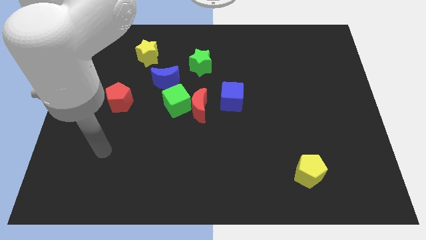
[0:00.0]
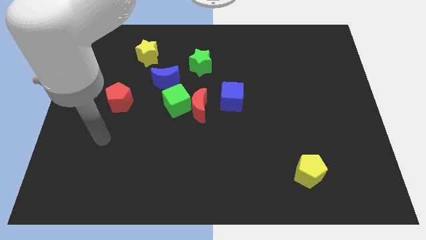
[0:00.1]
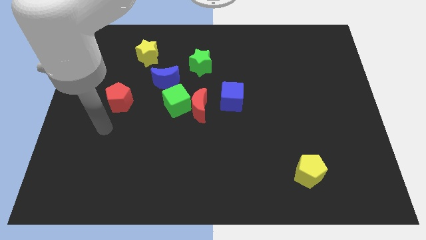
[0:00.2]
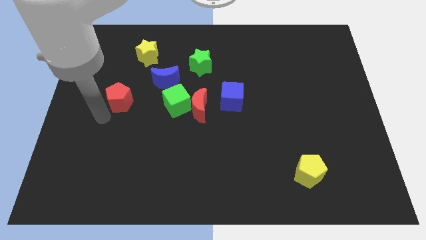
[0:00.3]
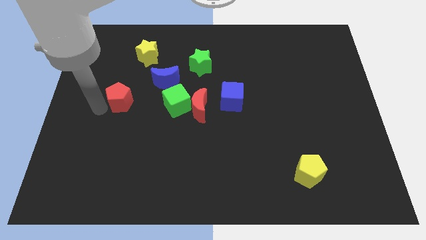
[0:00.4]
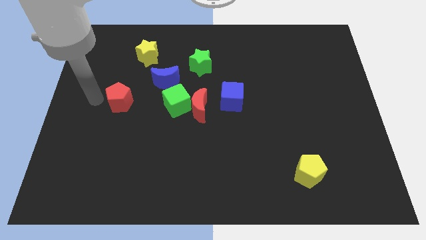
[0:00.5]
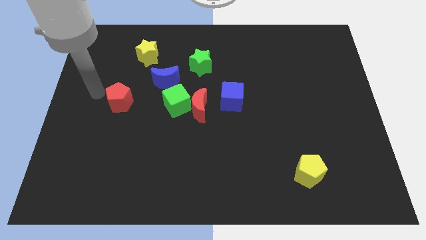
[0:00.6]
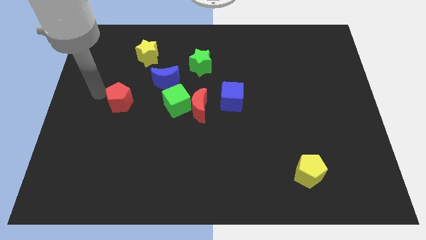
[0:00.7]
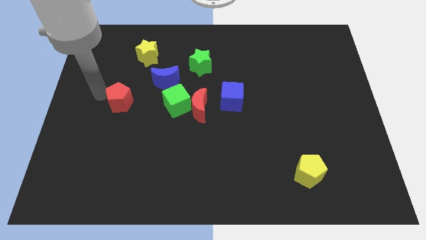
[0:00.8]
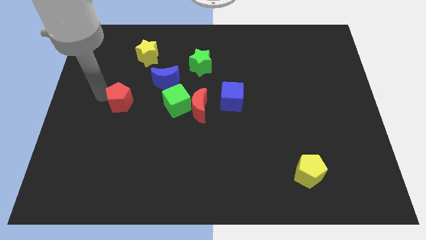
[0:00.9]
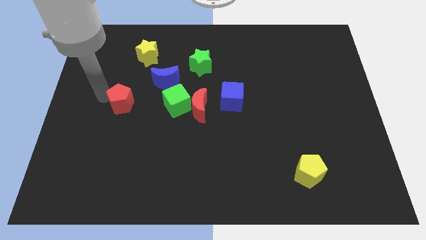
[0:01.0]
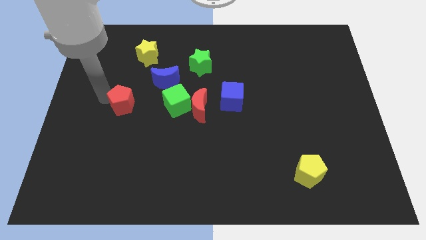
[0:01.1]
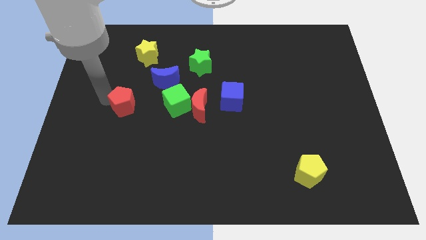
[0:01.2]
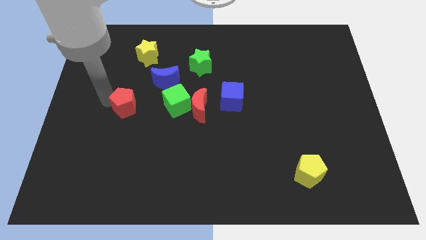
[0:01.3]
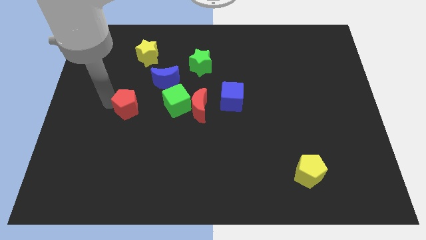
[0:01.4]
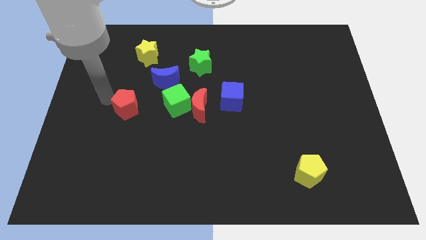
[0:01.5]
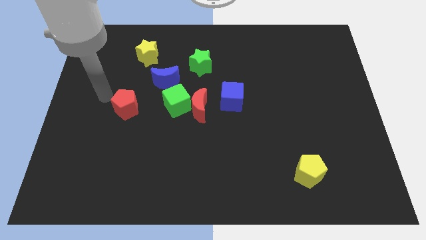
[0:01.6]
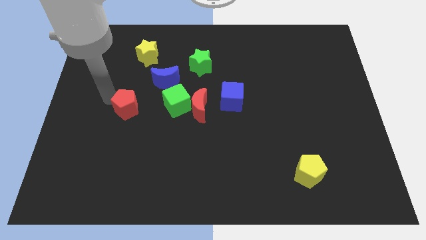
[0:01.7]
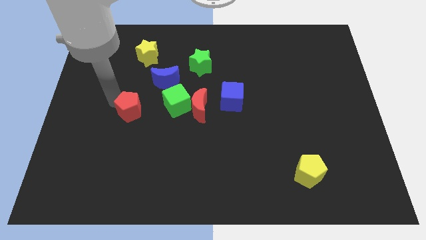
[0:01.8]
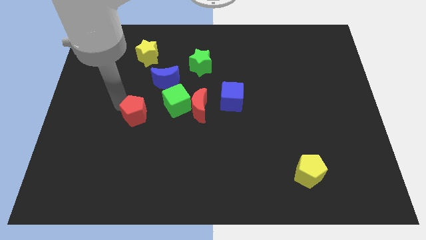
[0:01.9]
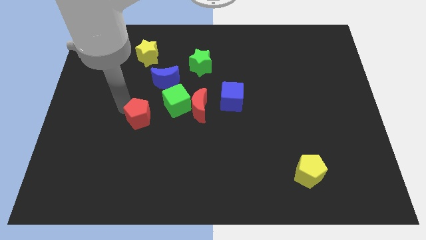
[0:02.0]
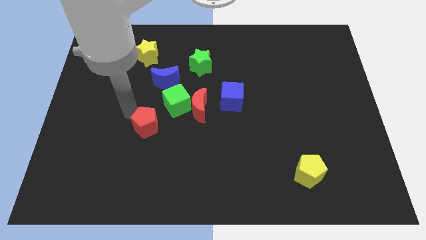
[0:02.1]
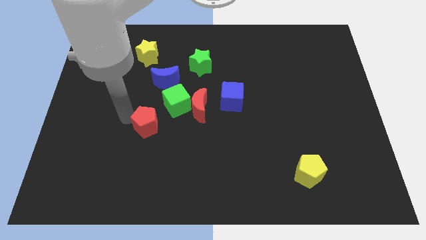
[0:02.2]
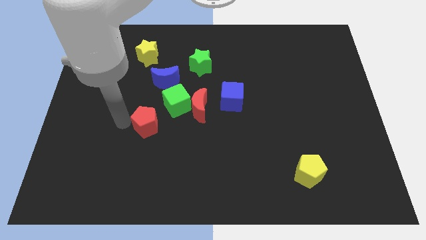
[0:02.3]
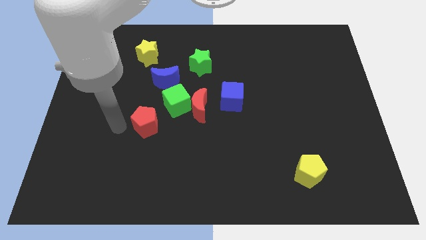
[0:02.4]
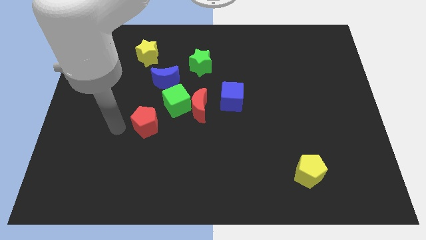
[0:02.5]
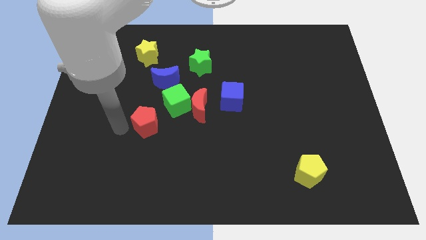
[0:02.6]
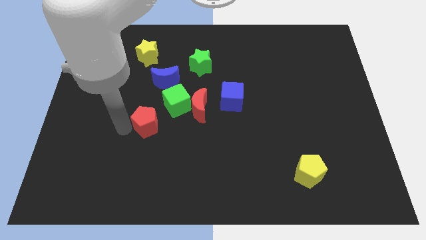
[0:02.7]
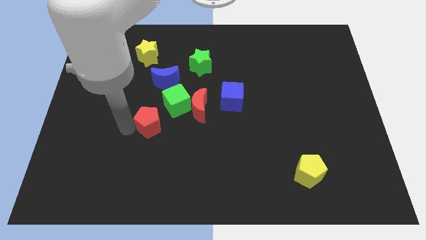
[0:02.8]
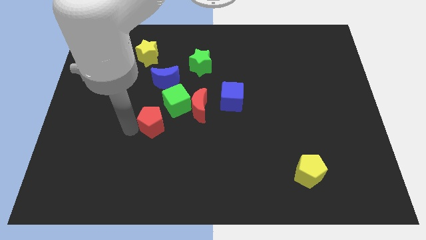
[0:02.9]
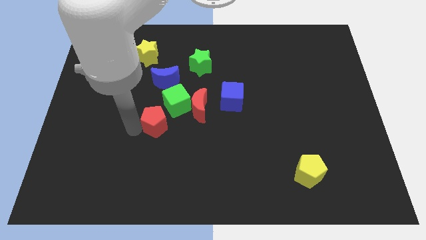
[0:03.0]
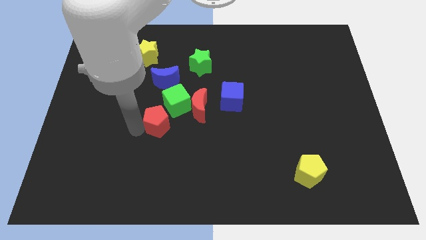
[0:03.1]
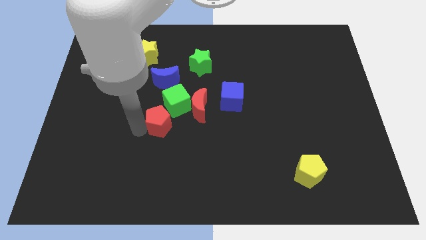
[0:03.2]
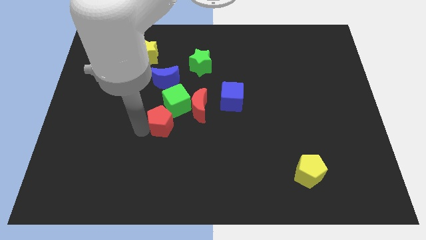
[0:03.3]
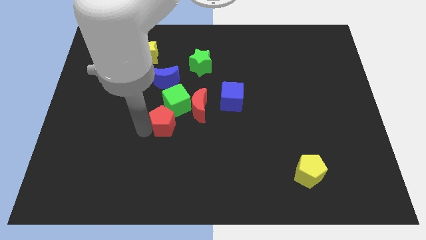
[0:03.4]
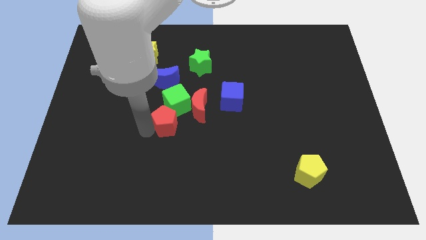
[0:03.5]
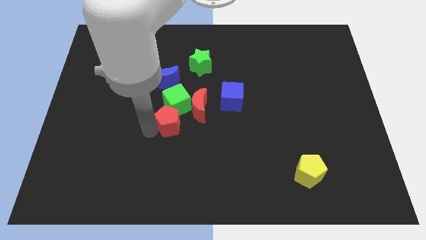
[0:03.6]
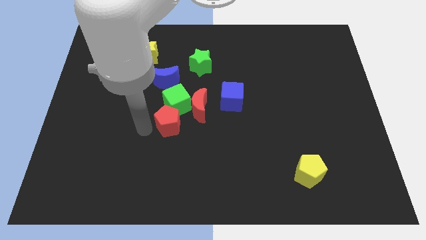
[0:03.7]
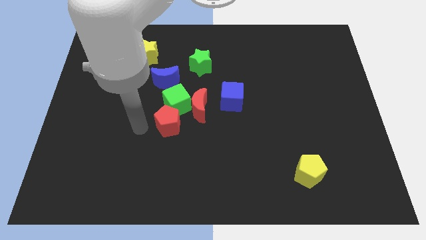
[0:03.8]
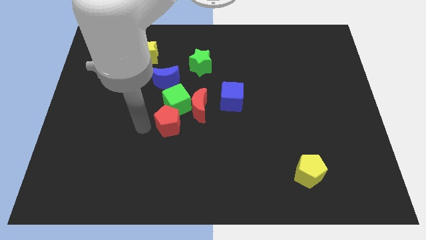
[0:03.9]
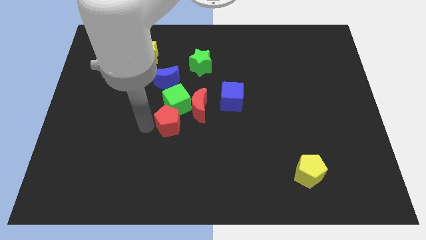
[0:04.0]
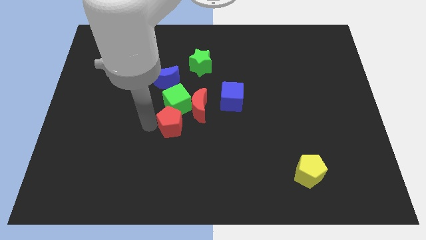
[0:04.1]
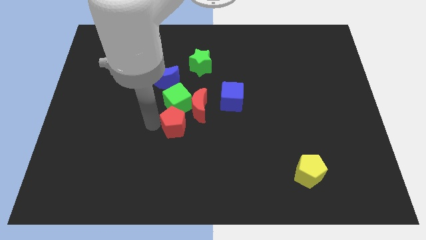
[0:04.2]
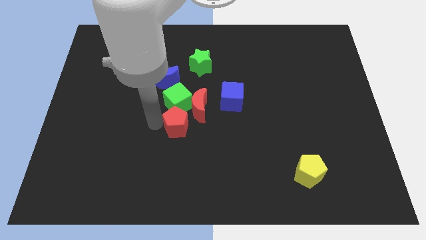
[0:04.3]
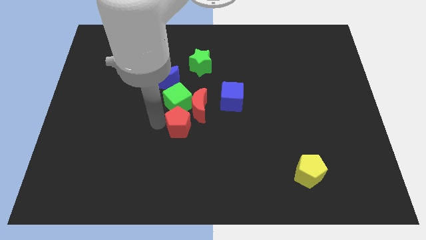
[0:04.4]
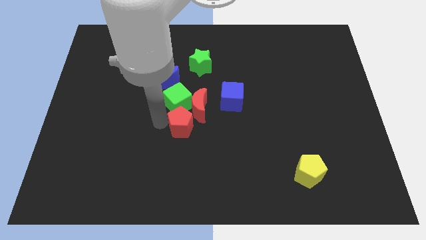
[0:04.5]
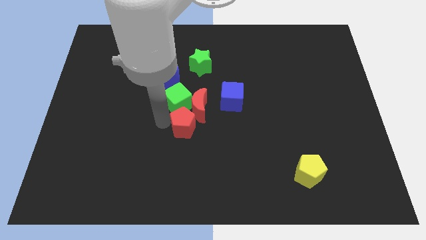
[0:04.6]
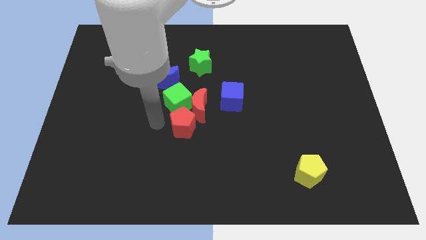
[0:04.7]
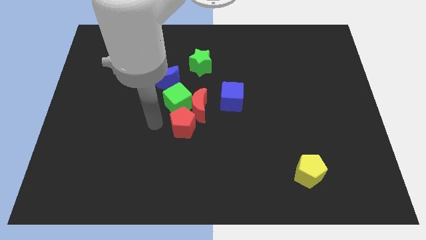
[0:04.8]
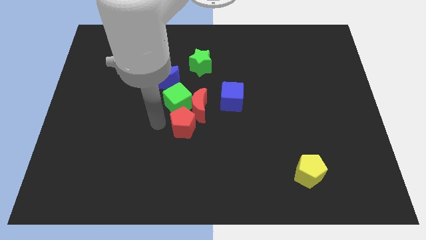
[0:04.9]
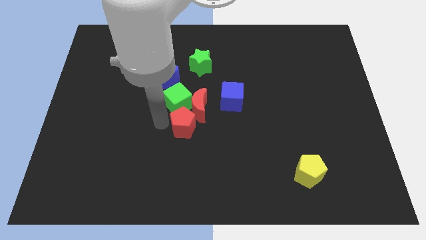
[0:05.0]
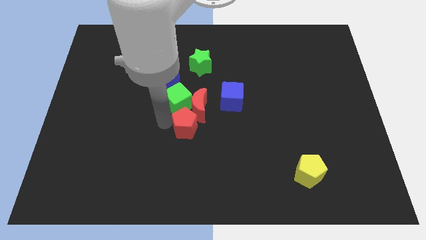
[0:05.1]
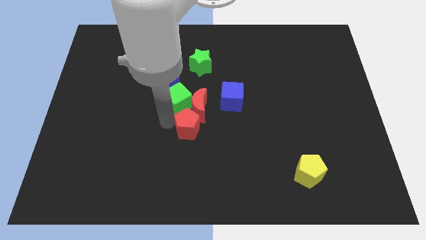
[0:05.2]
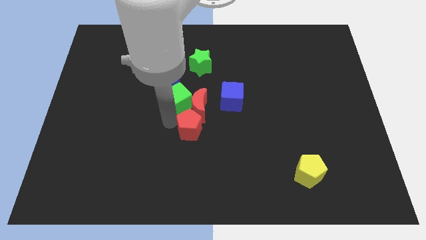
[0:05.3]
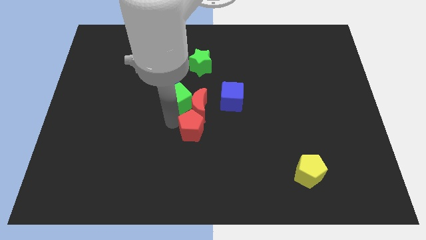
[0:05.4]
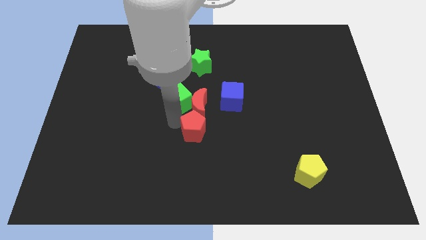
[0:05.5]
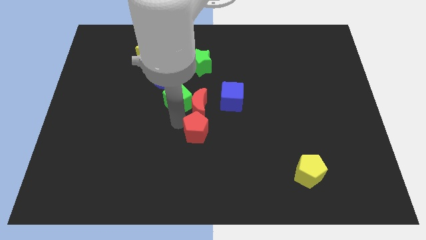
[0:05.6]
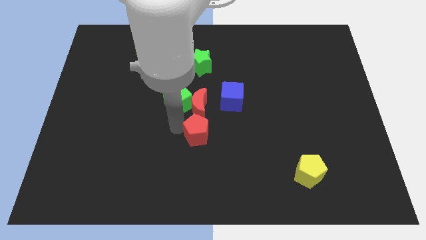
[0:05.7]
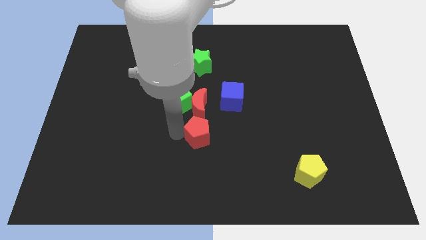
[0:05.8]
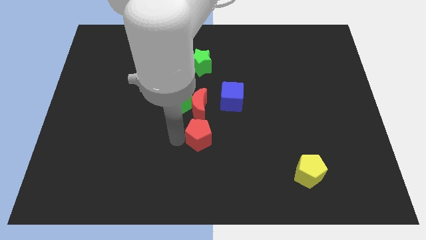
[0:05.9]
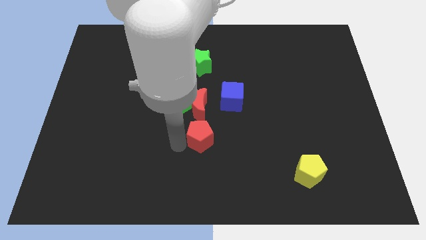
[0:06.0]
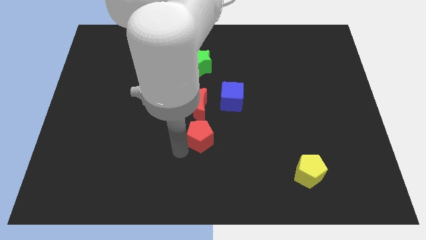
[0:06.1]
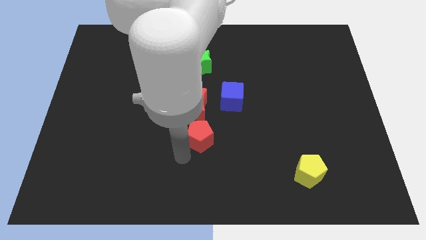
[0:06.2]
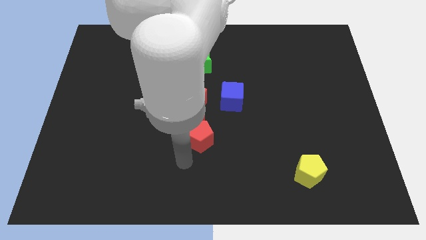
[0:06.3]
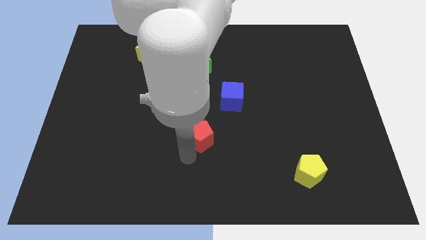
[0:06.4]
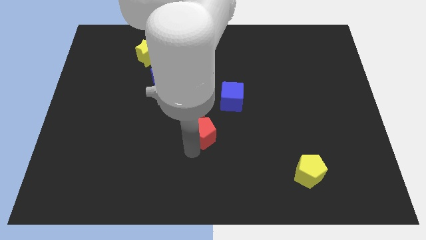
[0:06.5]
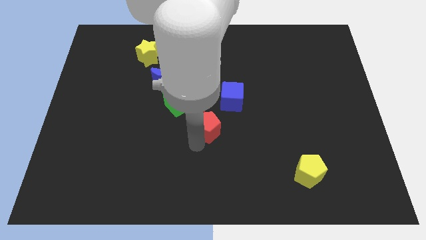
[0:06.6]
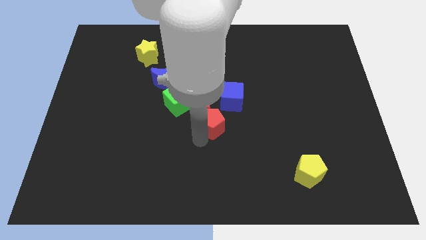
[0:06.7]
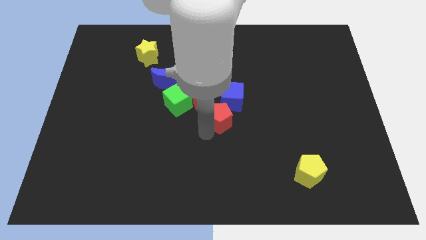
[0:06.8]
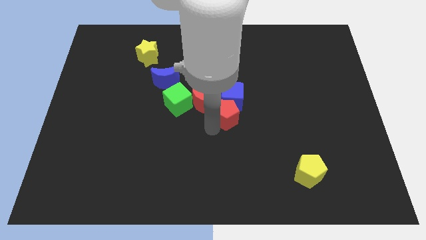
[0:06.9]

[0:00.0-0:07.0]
put the red pentagon towards the blue cube

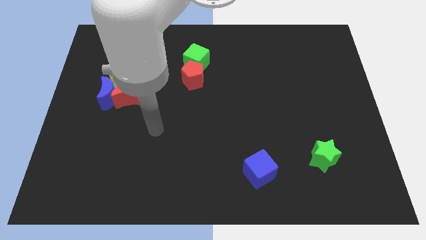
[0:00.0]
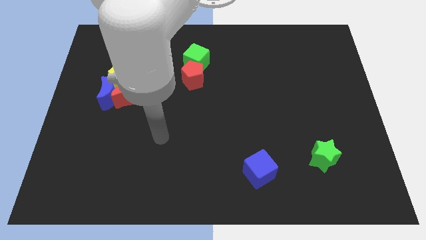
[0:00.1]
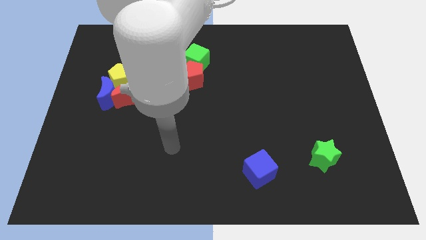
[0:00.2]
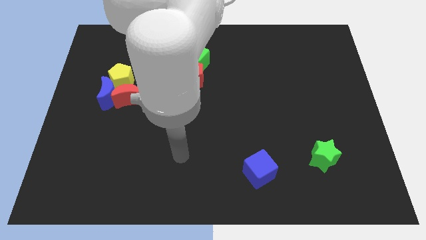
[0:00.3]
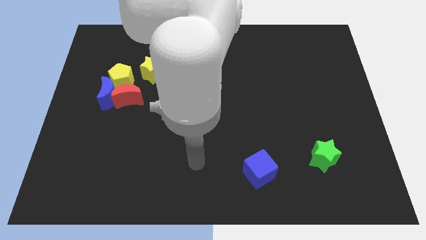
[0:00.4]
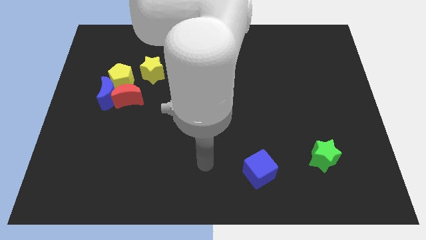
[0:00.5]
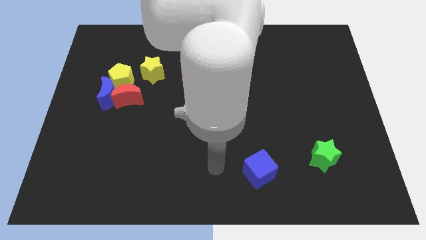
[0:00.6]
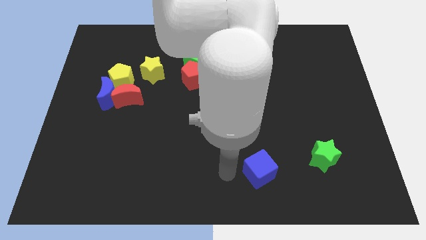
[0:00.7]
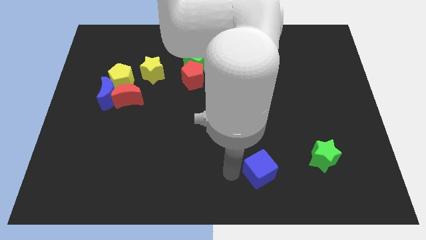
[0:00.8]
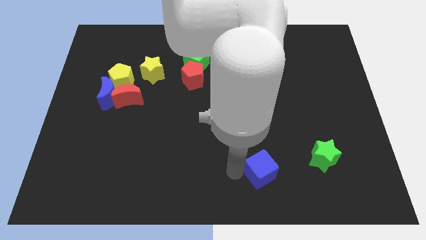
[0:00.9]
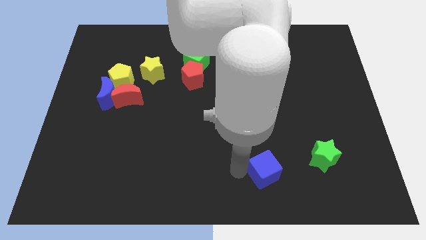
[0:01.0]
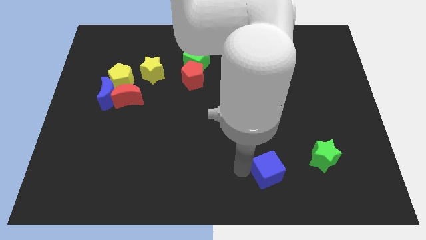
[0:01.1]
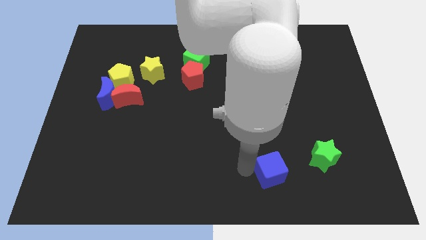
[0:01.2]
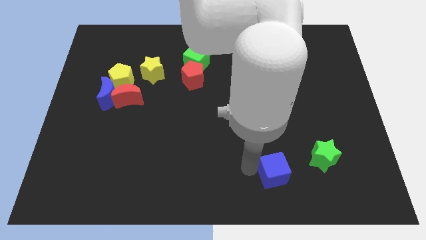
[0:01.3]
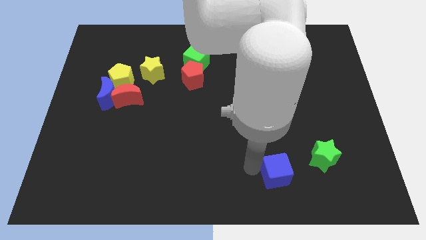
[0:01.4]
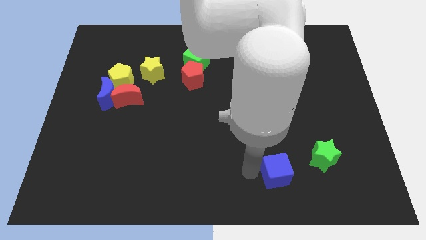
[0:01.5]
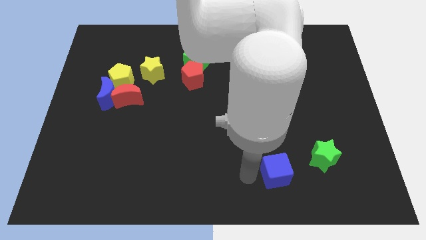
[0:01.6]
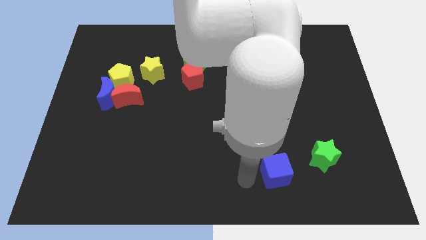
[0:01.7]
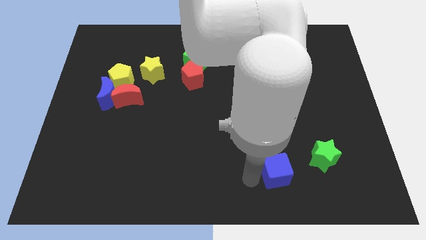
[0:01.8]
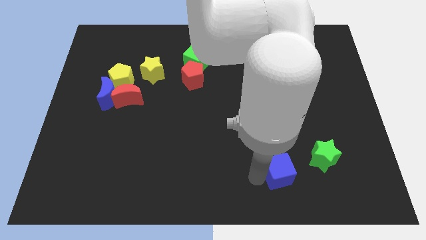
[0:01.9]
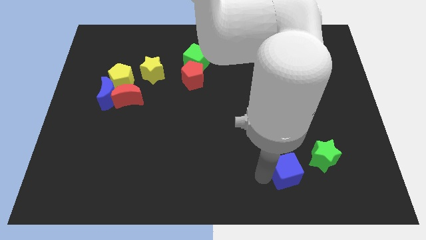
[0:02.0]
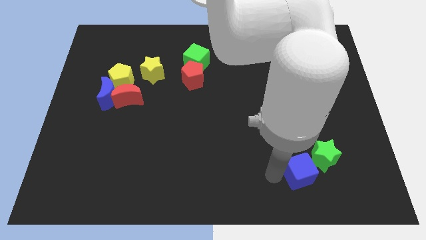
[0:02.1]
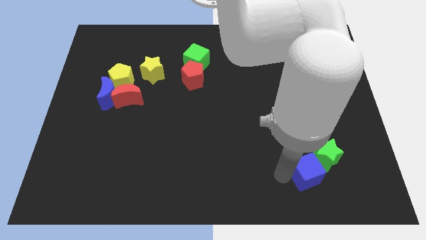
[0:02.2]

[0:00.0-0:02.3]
slide the blue cube close to the green star
